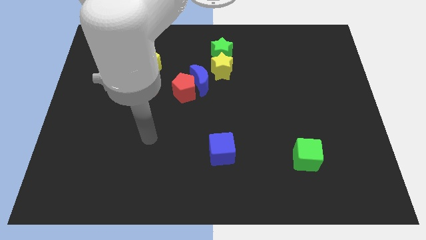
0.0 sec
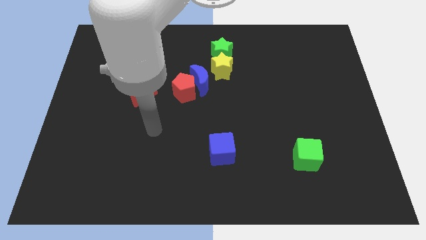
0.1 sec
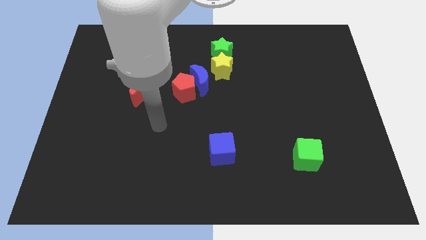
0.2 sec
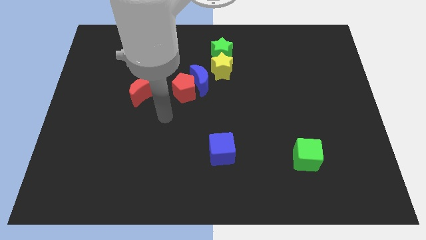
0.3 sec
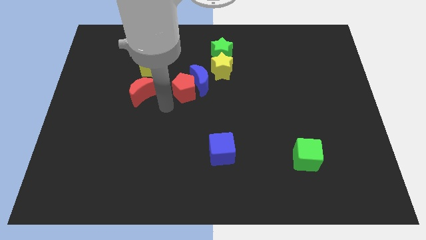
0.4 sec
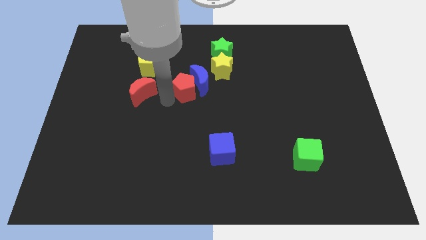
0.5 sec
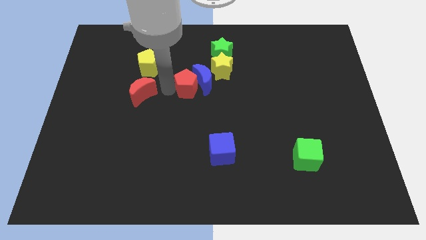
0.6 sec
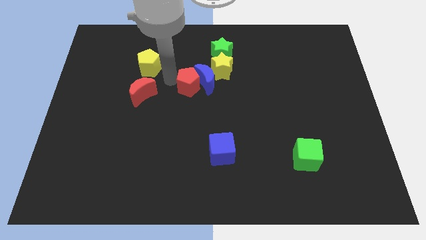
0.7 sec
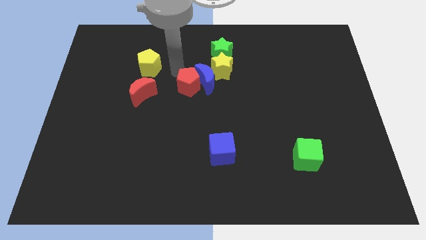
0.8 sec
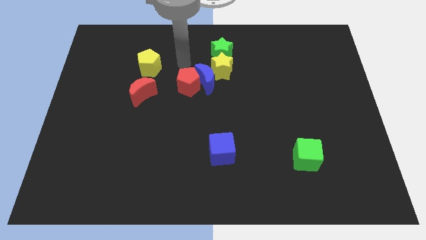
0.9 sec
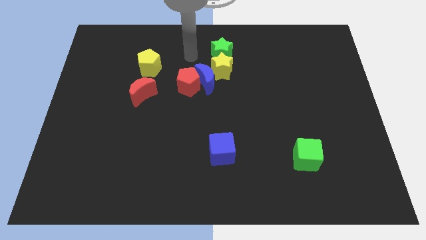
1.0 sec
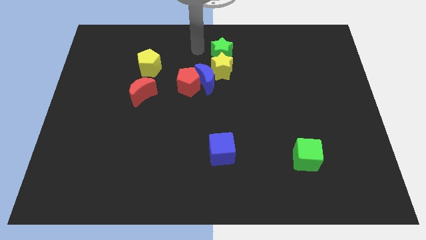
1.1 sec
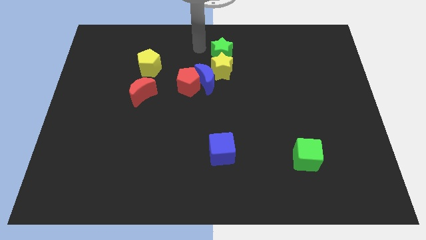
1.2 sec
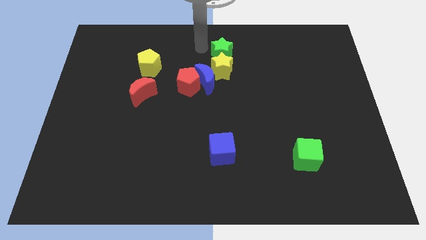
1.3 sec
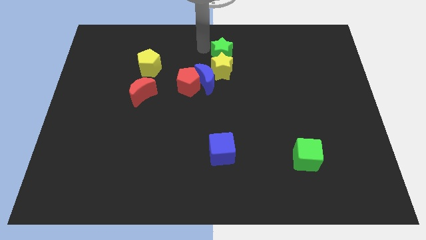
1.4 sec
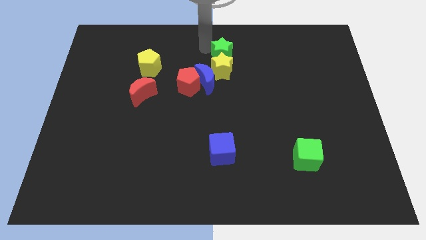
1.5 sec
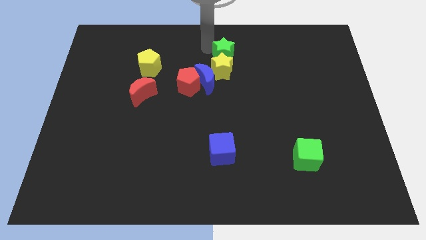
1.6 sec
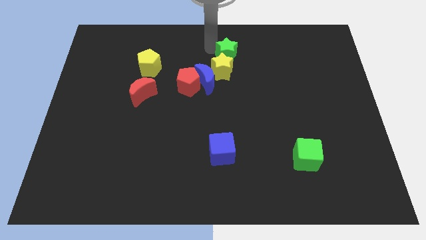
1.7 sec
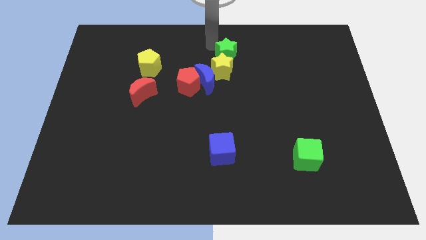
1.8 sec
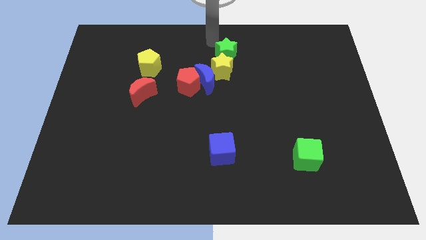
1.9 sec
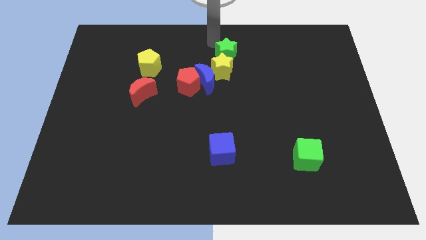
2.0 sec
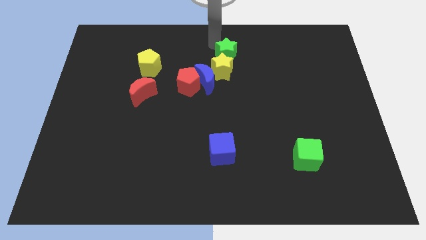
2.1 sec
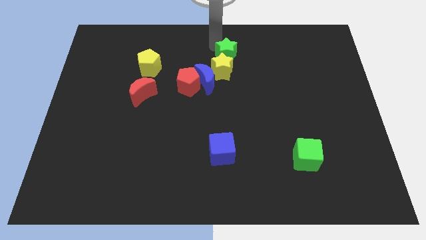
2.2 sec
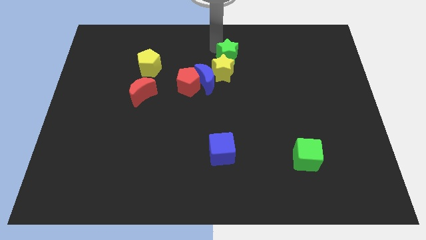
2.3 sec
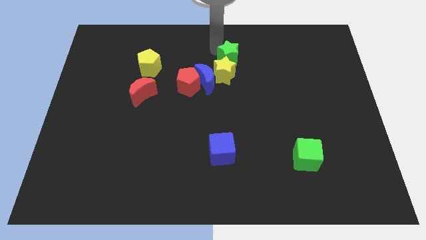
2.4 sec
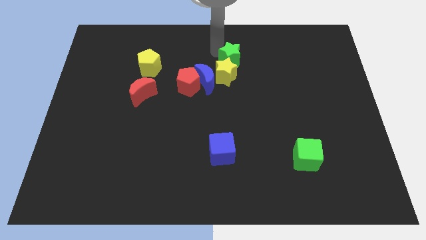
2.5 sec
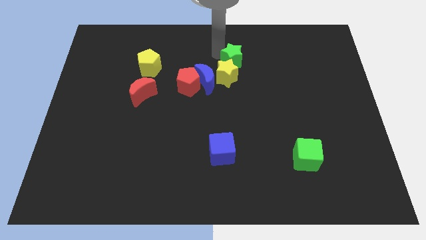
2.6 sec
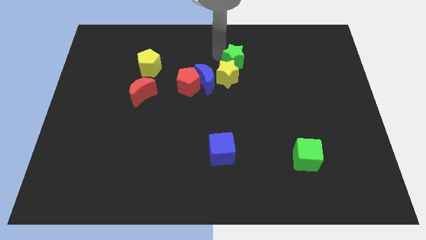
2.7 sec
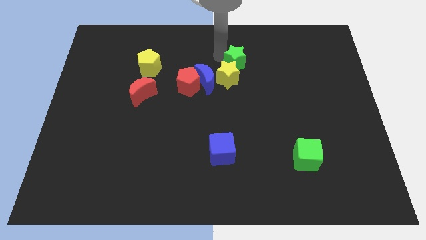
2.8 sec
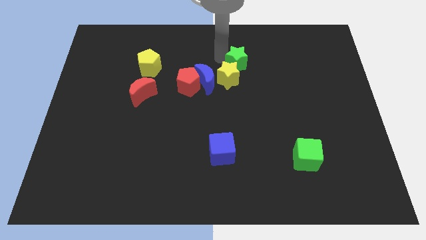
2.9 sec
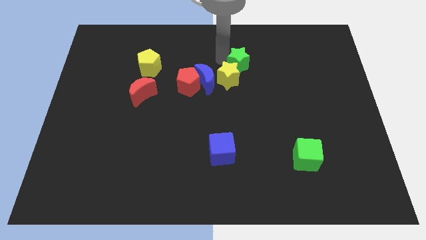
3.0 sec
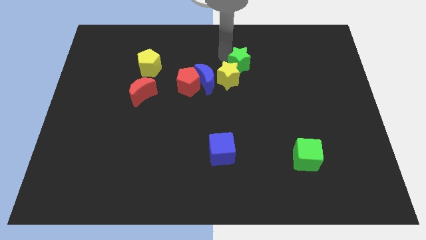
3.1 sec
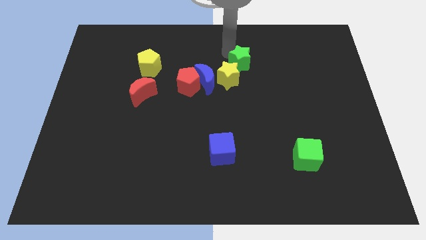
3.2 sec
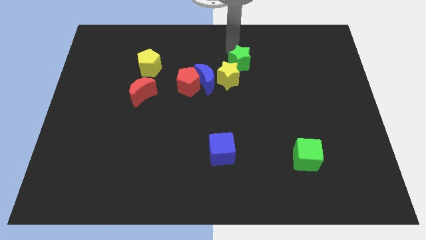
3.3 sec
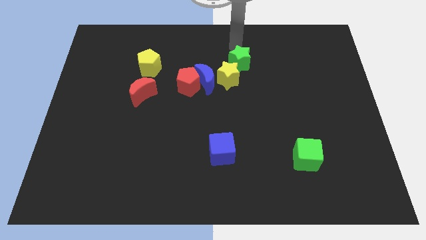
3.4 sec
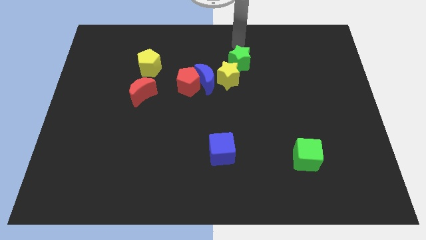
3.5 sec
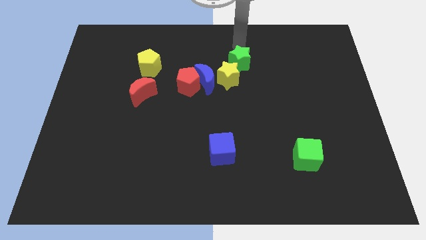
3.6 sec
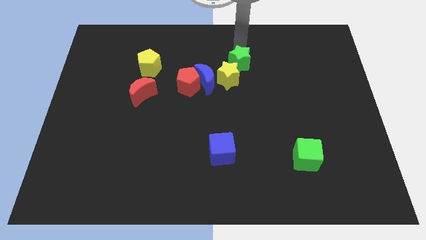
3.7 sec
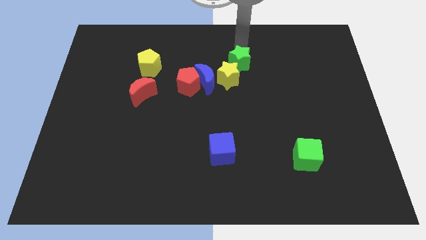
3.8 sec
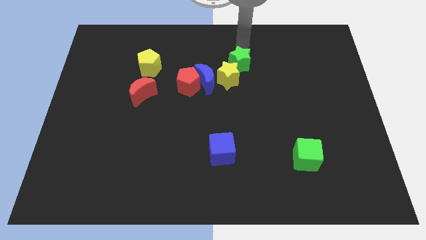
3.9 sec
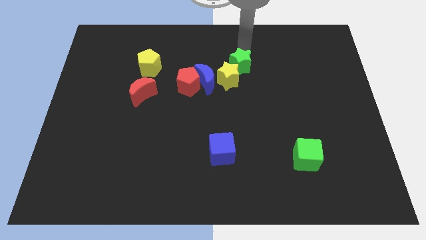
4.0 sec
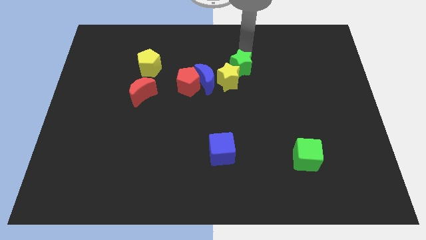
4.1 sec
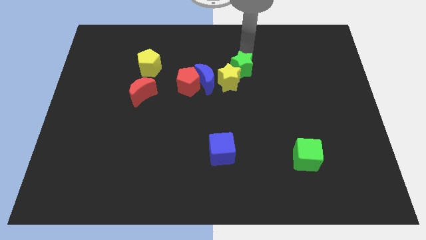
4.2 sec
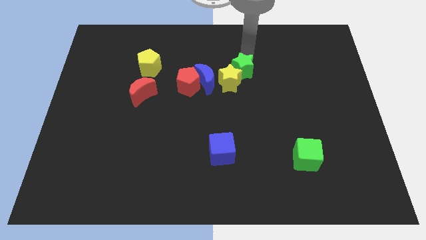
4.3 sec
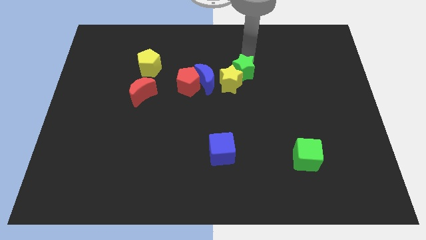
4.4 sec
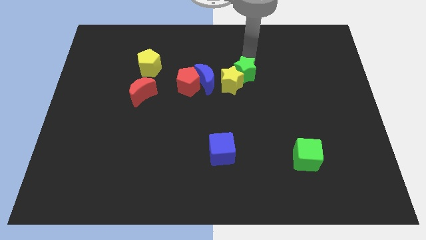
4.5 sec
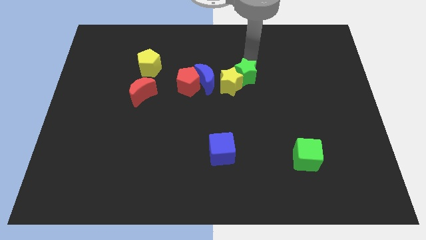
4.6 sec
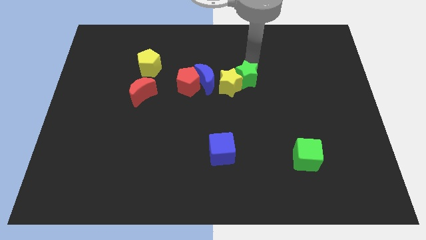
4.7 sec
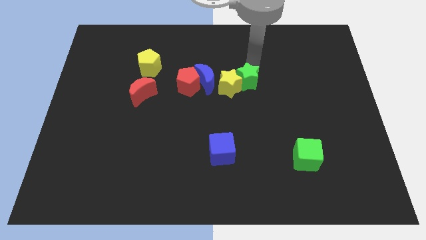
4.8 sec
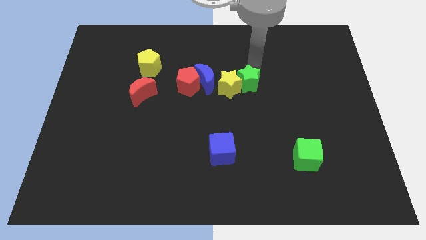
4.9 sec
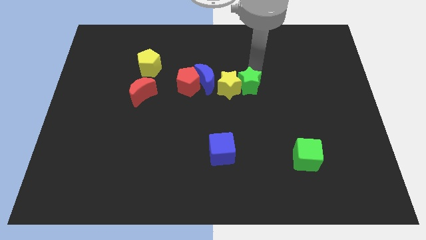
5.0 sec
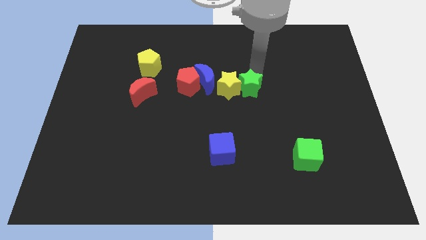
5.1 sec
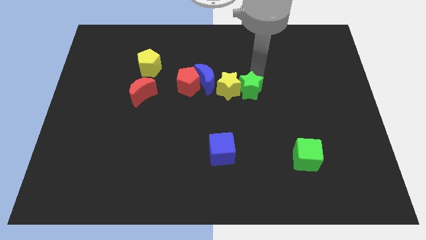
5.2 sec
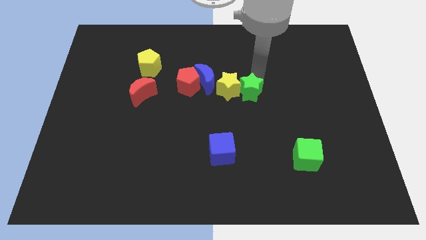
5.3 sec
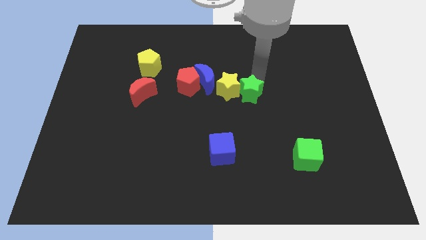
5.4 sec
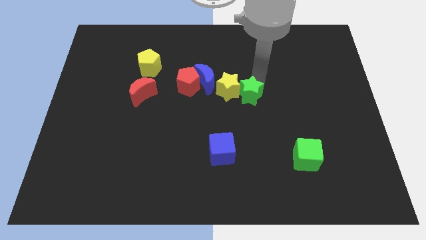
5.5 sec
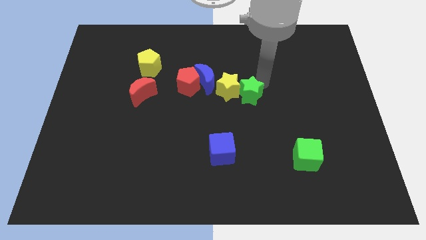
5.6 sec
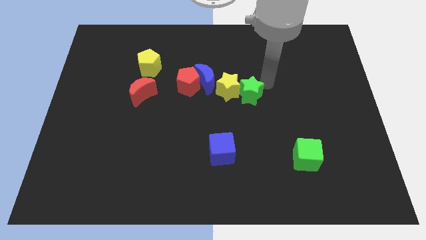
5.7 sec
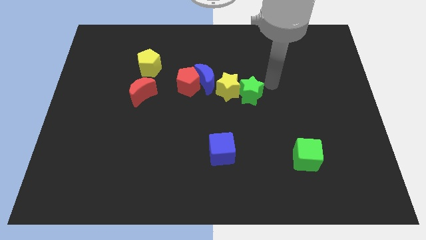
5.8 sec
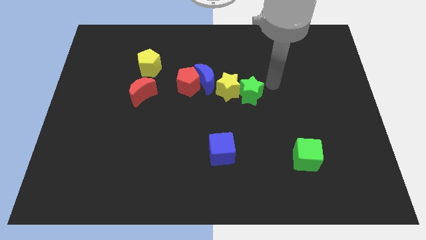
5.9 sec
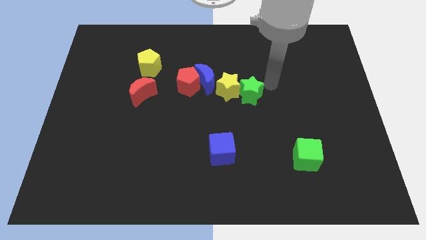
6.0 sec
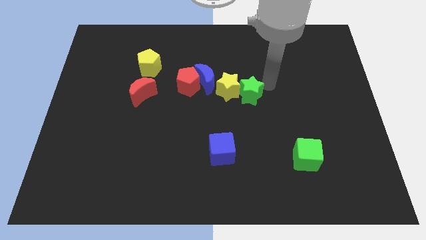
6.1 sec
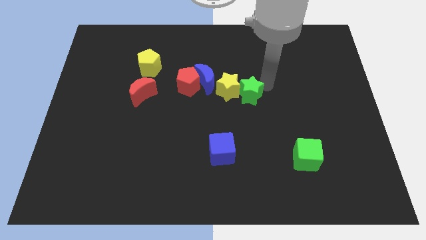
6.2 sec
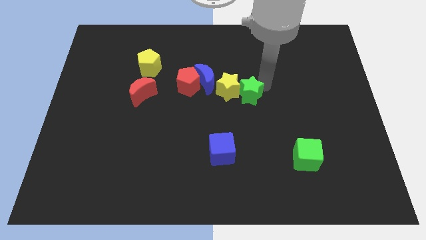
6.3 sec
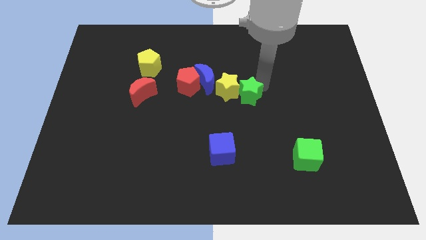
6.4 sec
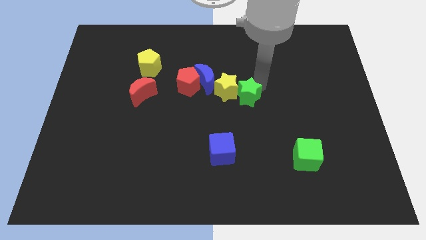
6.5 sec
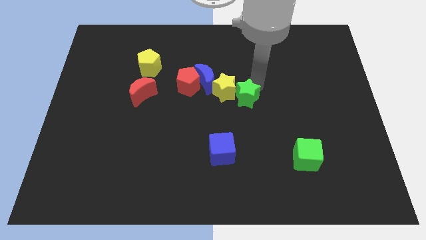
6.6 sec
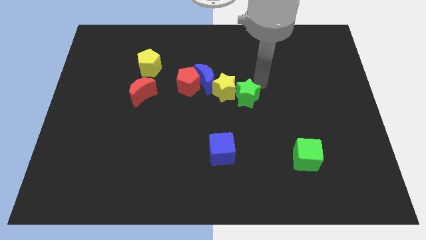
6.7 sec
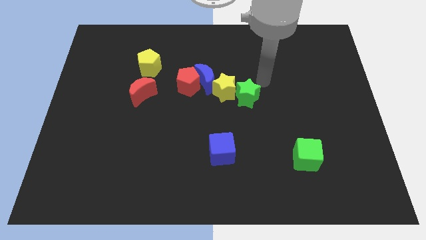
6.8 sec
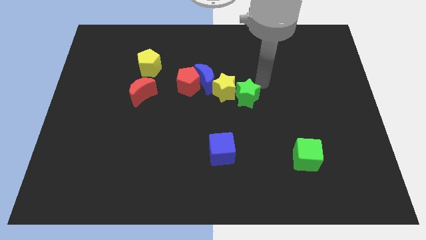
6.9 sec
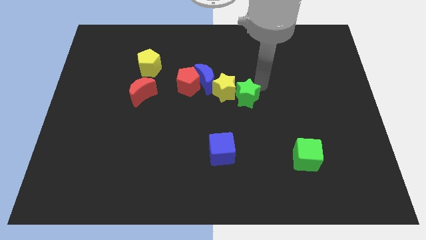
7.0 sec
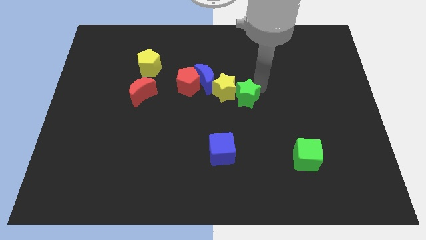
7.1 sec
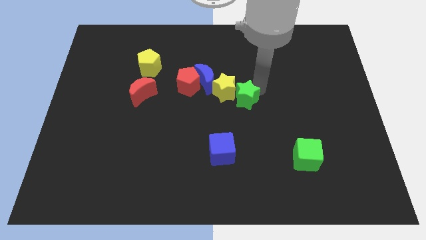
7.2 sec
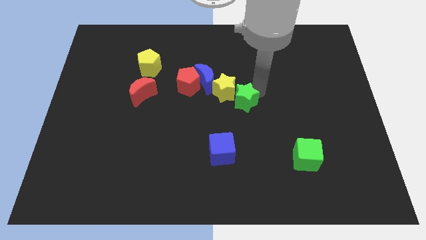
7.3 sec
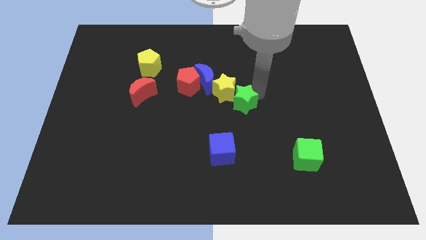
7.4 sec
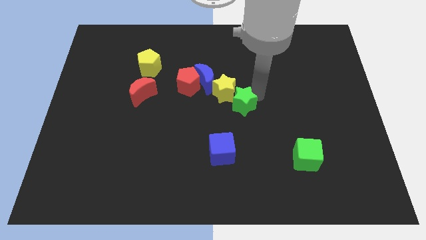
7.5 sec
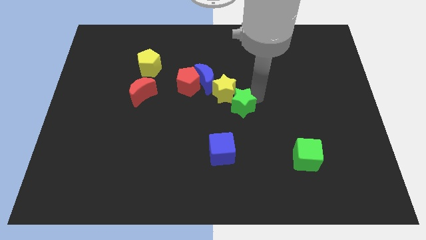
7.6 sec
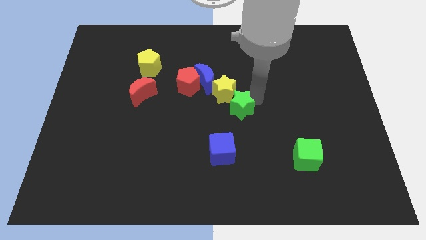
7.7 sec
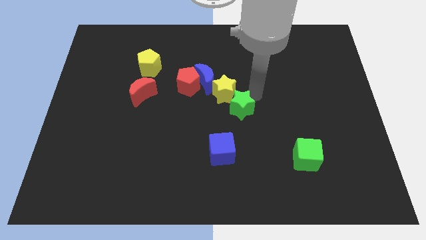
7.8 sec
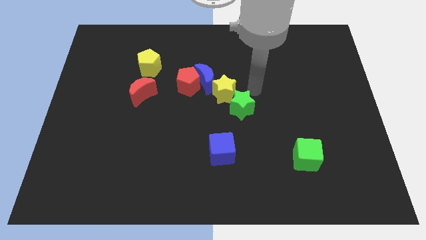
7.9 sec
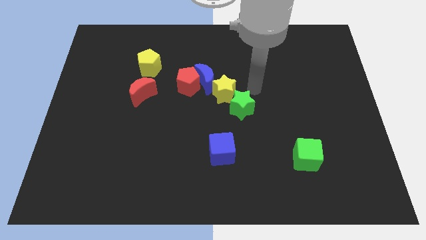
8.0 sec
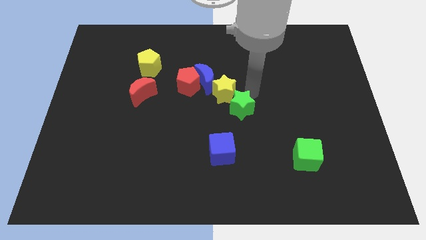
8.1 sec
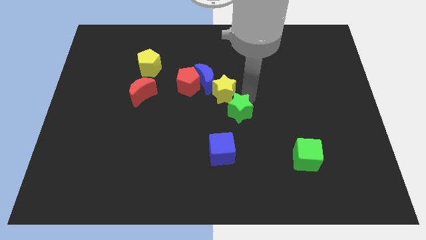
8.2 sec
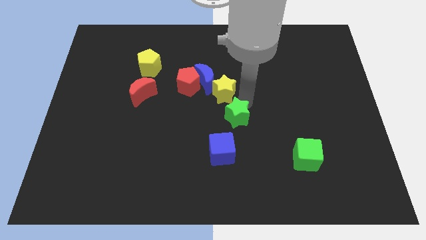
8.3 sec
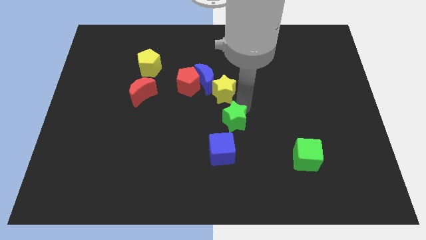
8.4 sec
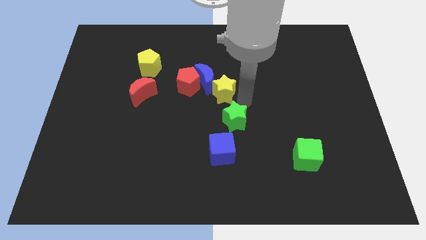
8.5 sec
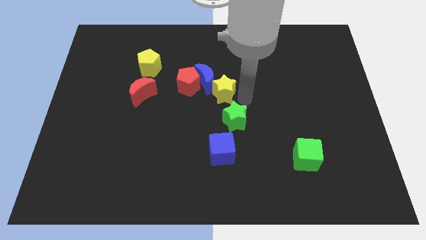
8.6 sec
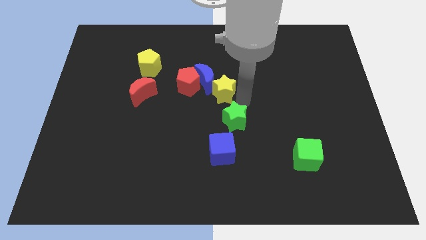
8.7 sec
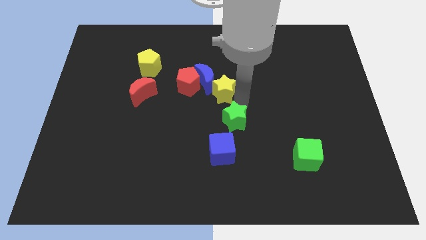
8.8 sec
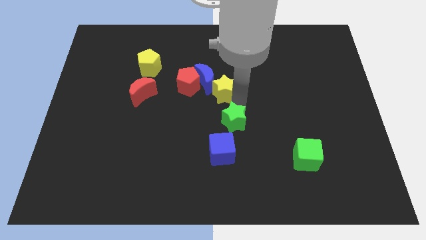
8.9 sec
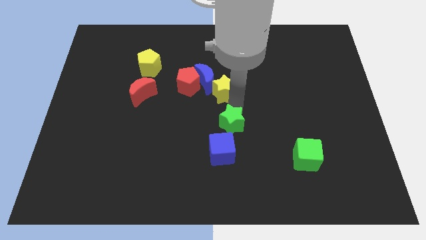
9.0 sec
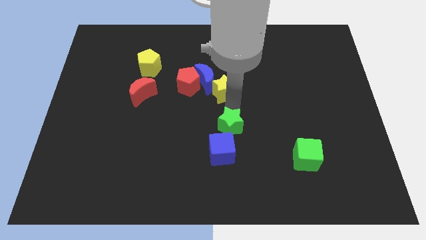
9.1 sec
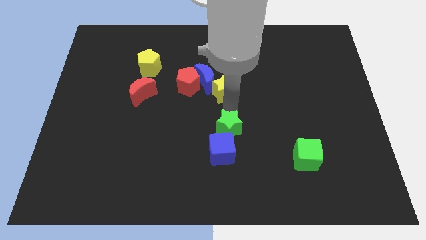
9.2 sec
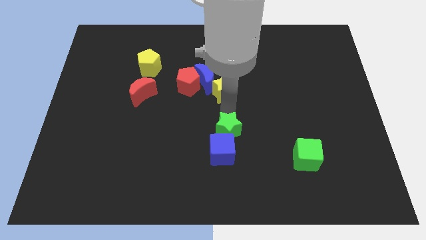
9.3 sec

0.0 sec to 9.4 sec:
push the green star close to the blue cube
